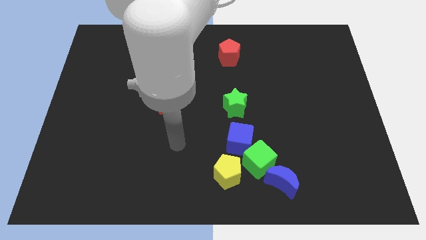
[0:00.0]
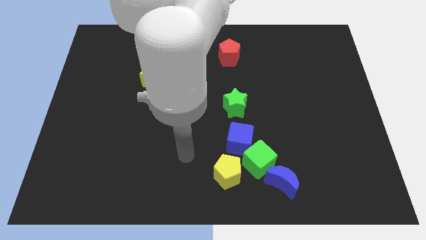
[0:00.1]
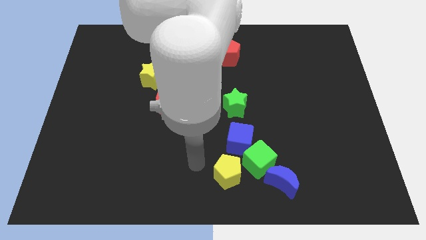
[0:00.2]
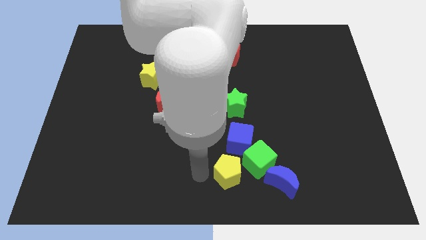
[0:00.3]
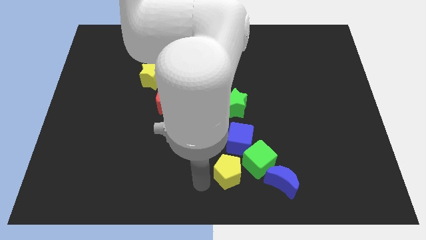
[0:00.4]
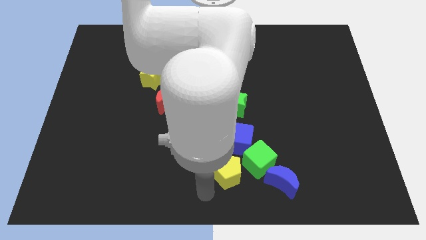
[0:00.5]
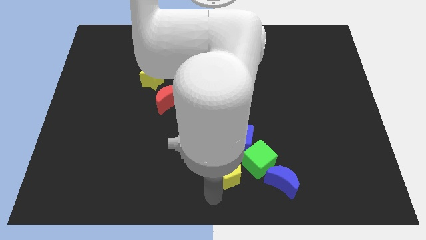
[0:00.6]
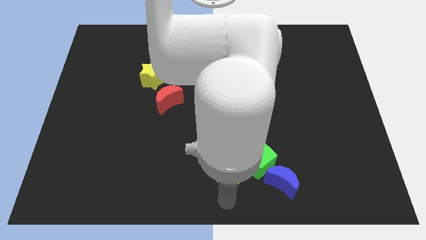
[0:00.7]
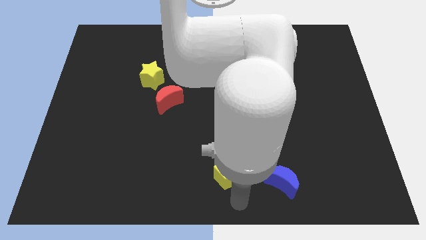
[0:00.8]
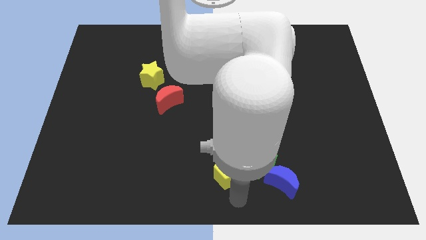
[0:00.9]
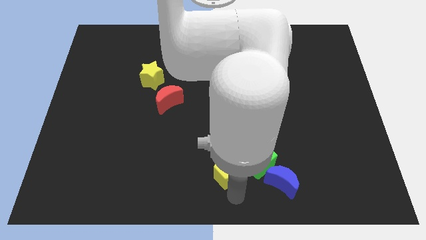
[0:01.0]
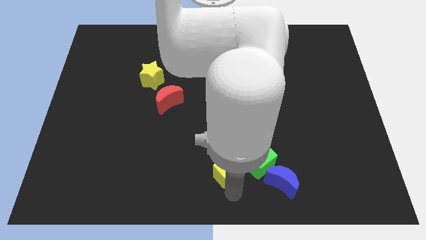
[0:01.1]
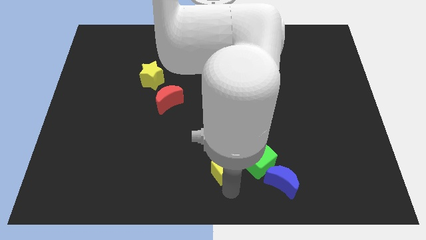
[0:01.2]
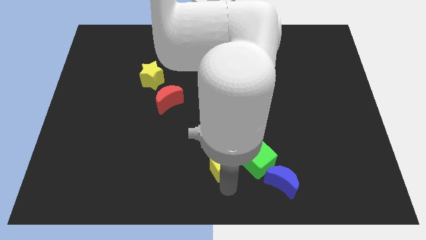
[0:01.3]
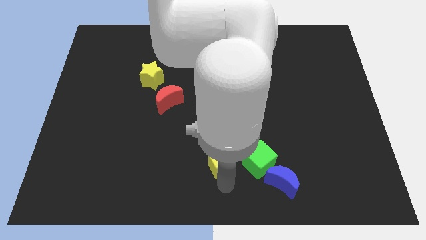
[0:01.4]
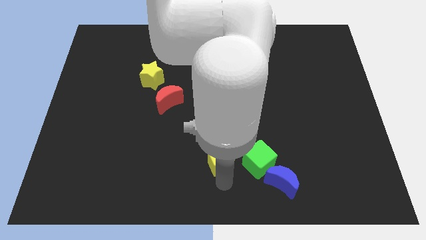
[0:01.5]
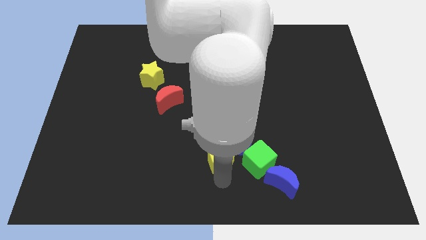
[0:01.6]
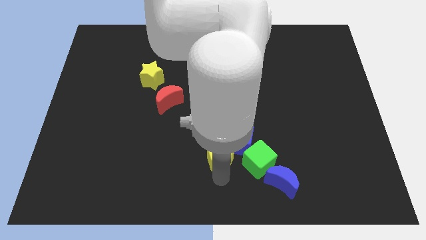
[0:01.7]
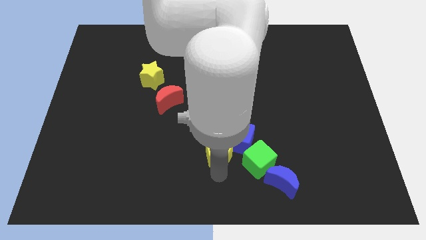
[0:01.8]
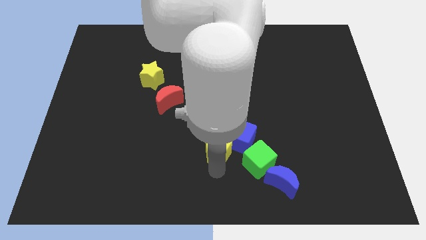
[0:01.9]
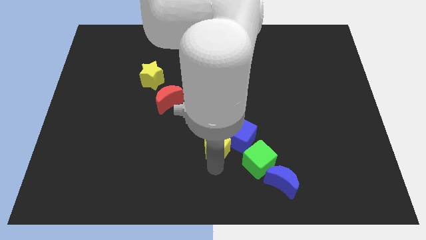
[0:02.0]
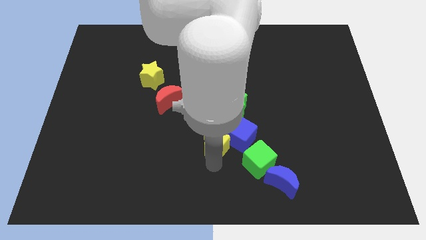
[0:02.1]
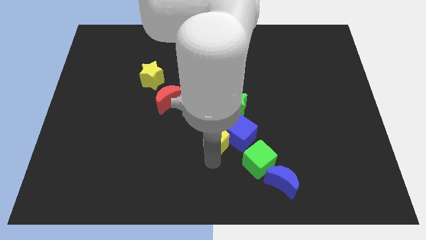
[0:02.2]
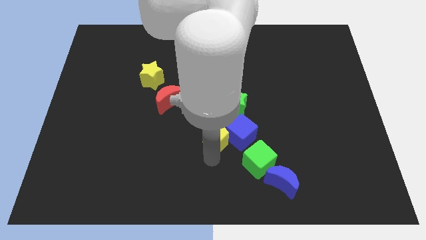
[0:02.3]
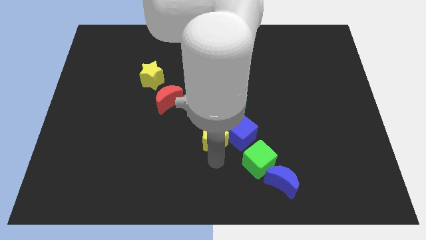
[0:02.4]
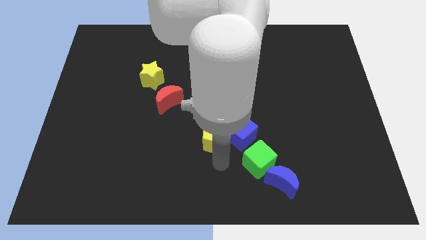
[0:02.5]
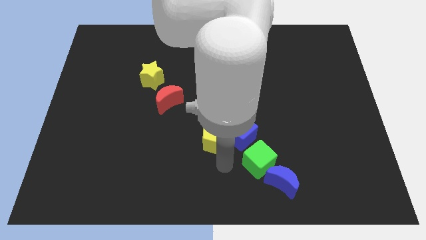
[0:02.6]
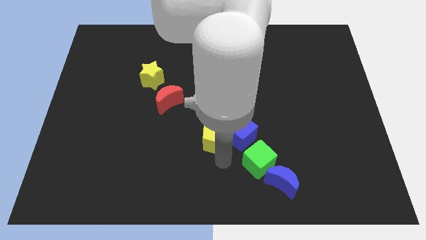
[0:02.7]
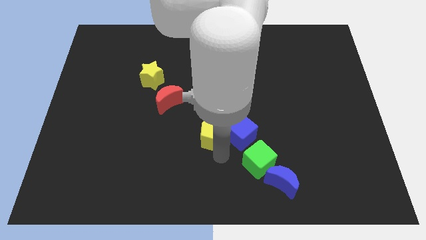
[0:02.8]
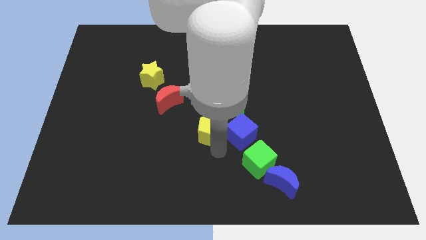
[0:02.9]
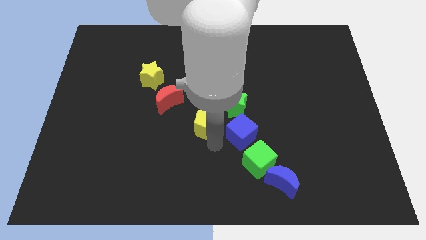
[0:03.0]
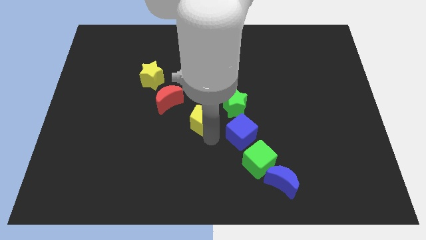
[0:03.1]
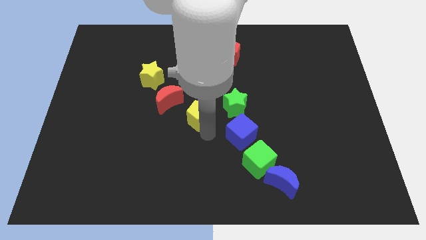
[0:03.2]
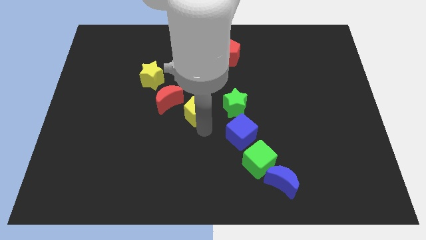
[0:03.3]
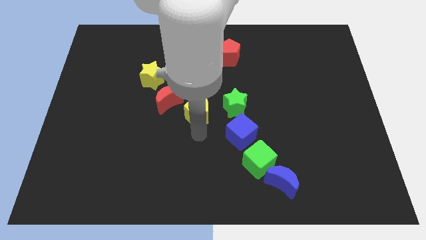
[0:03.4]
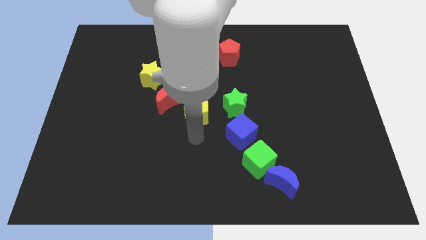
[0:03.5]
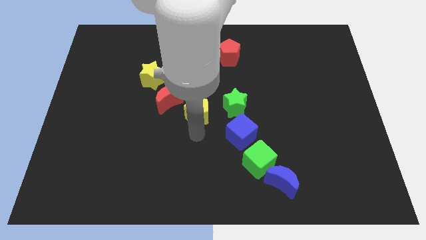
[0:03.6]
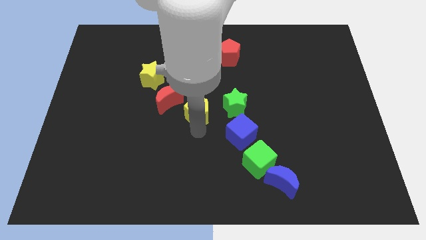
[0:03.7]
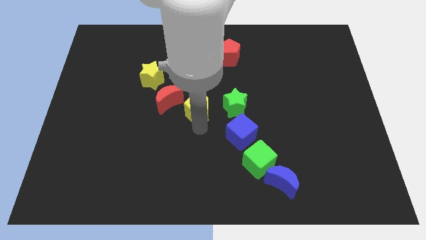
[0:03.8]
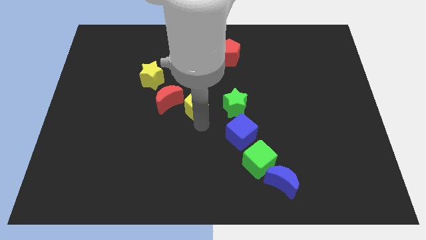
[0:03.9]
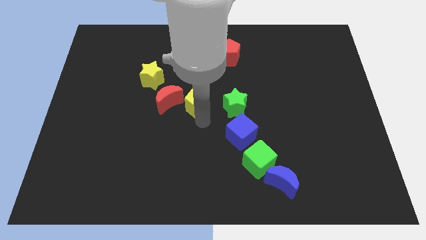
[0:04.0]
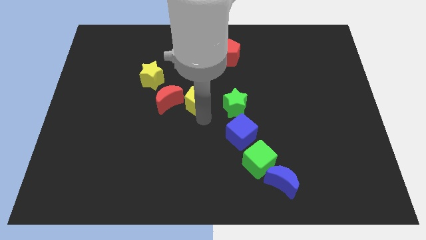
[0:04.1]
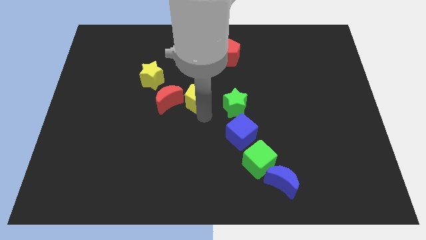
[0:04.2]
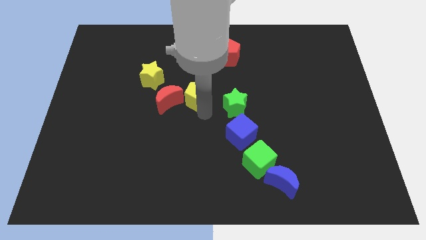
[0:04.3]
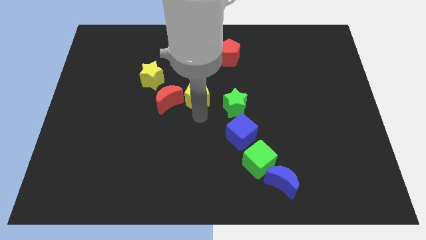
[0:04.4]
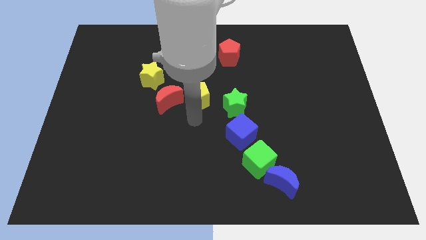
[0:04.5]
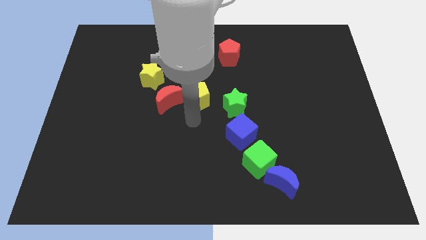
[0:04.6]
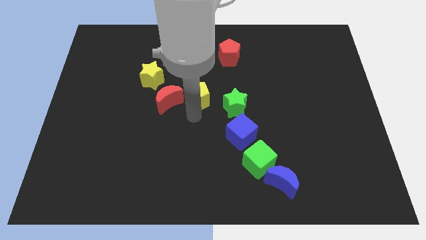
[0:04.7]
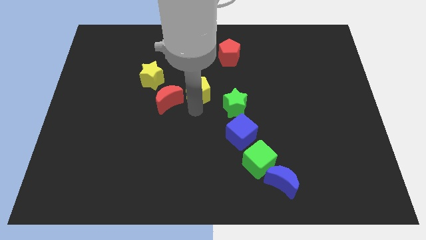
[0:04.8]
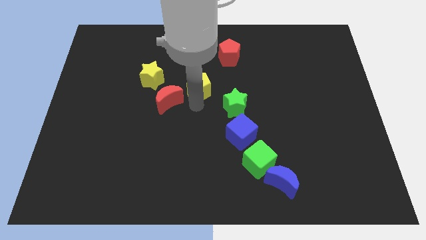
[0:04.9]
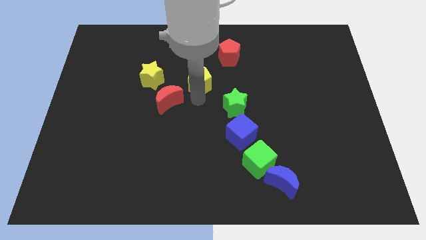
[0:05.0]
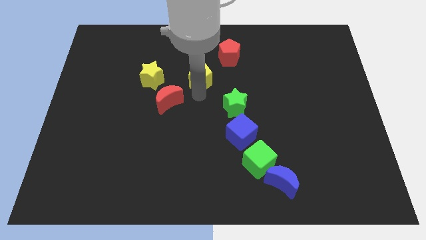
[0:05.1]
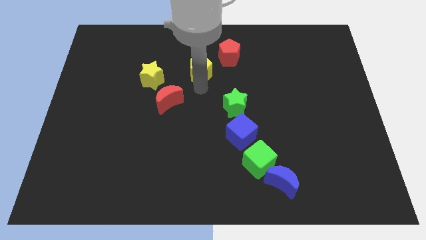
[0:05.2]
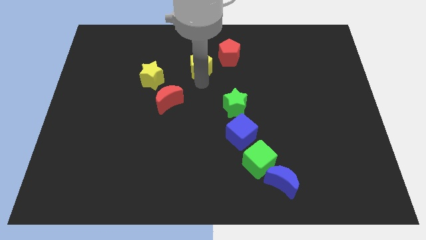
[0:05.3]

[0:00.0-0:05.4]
push the yellow pentagon left of the red pentagon

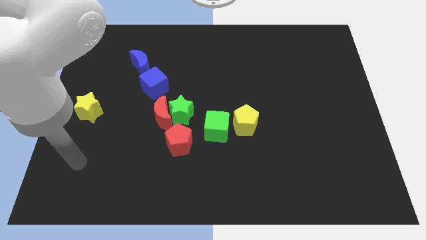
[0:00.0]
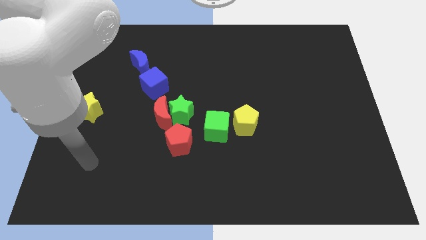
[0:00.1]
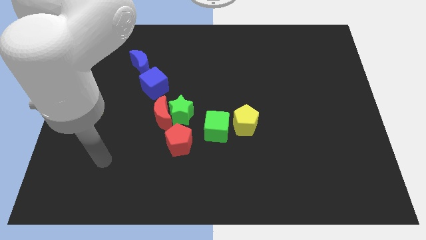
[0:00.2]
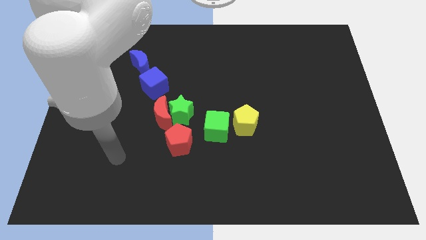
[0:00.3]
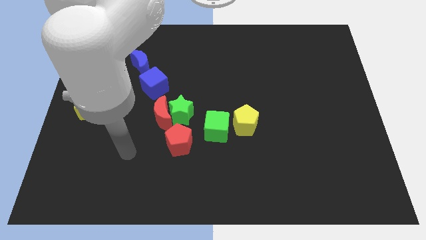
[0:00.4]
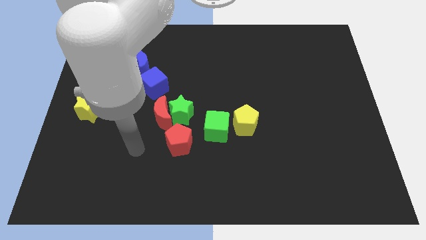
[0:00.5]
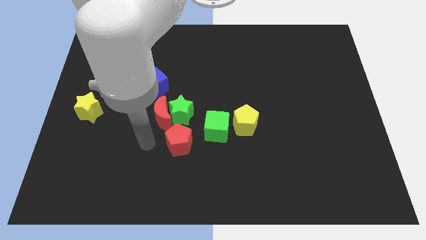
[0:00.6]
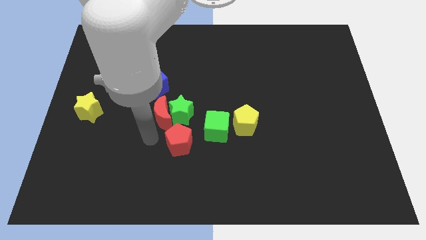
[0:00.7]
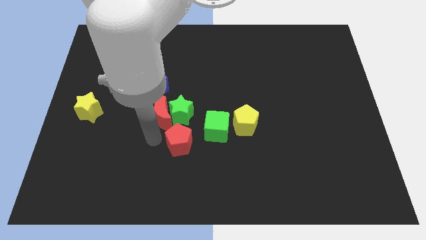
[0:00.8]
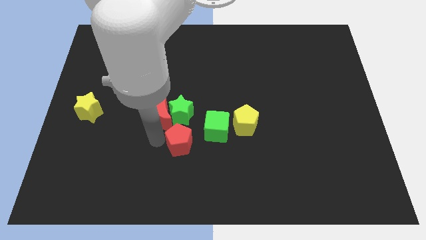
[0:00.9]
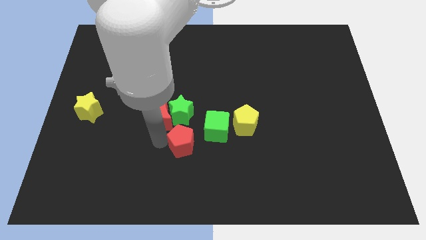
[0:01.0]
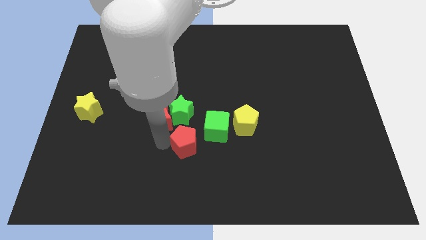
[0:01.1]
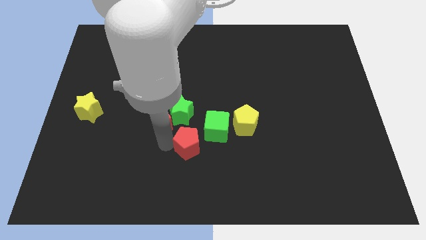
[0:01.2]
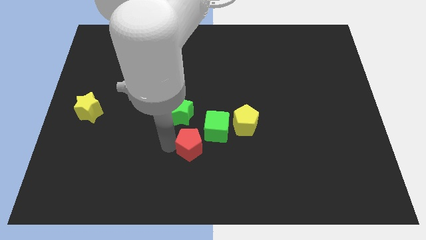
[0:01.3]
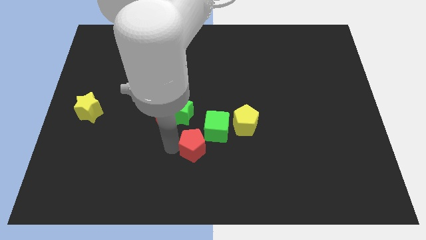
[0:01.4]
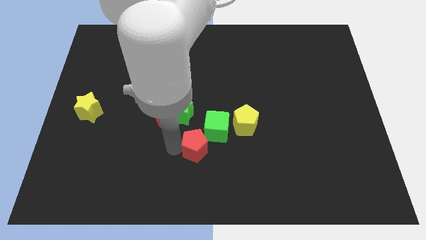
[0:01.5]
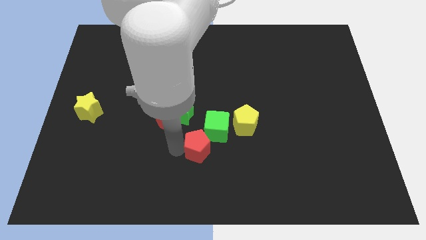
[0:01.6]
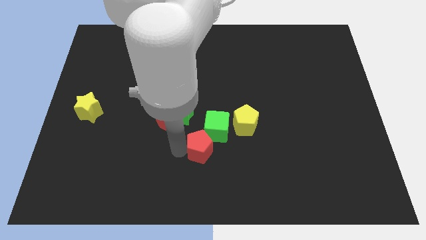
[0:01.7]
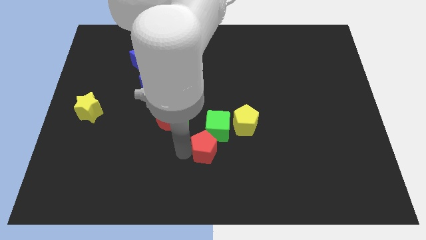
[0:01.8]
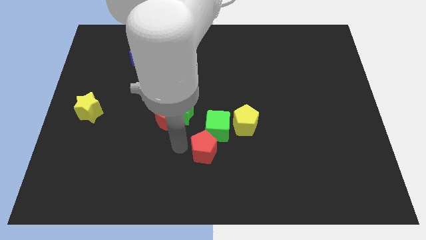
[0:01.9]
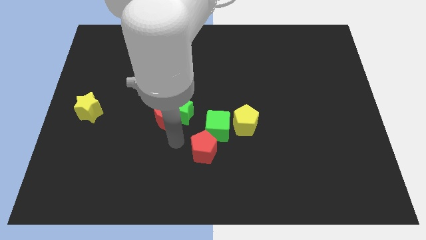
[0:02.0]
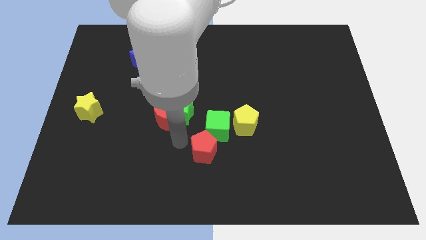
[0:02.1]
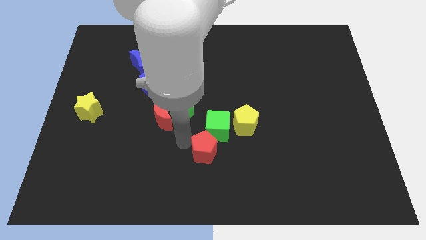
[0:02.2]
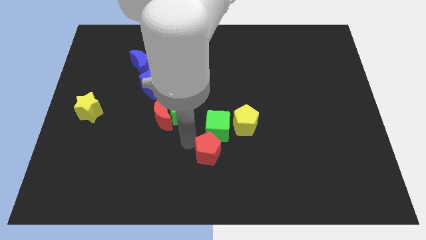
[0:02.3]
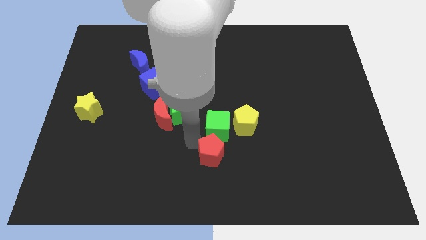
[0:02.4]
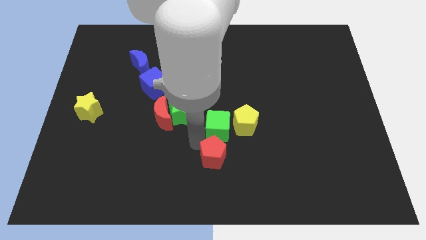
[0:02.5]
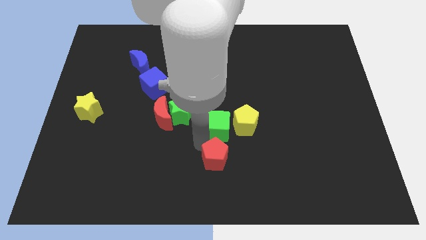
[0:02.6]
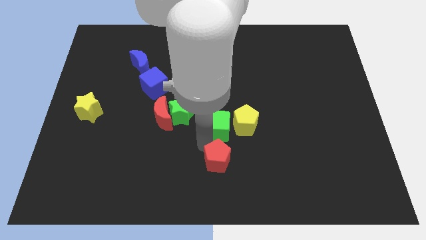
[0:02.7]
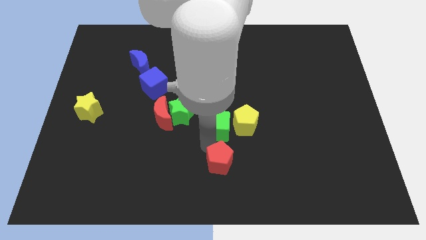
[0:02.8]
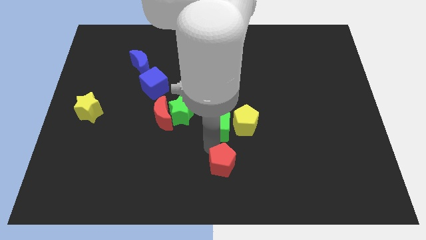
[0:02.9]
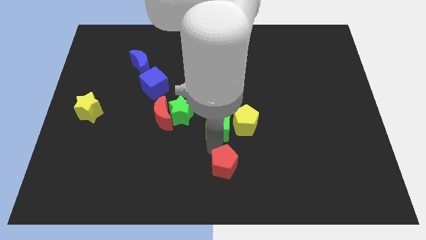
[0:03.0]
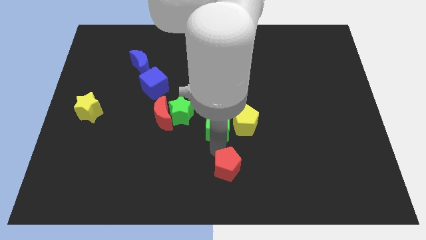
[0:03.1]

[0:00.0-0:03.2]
slide the red pentagon below the yellow pentagon
